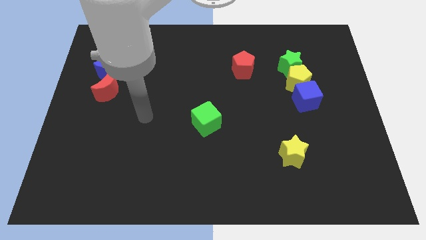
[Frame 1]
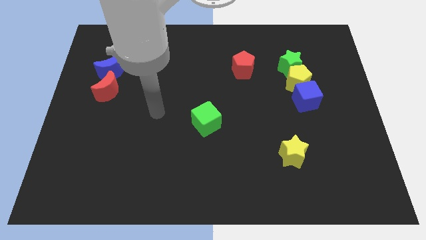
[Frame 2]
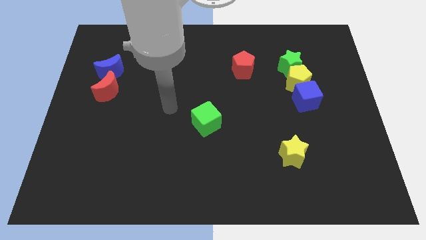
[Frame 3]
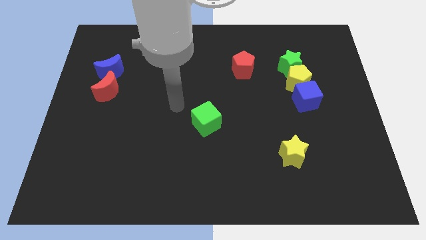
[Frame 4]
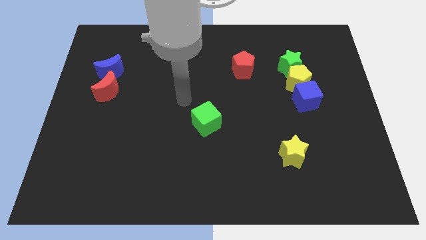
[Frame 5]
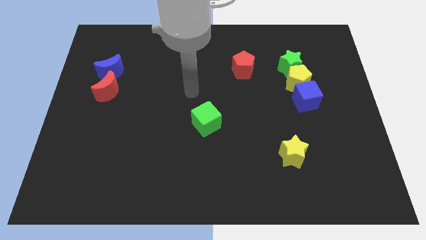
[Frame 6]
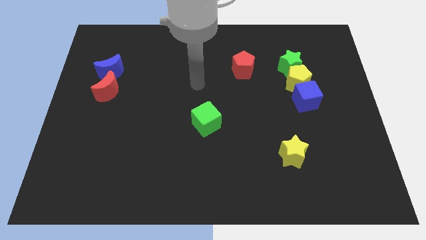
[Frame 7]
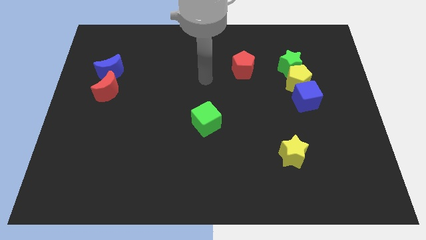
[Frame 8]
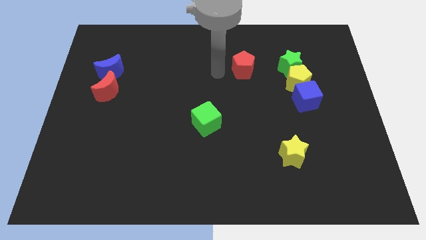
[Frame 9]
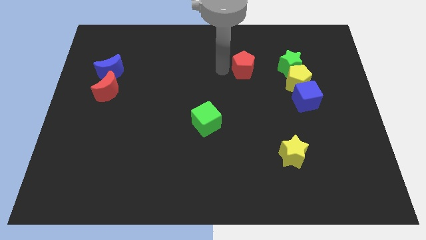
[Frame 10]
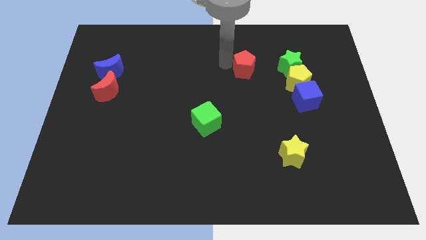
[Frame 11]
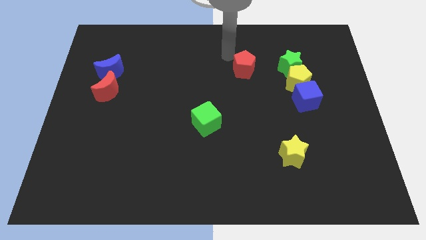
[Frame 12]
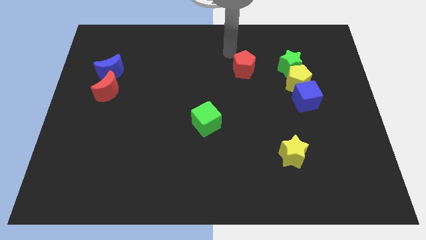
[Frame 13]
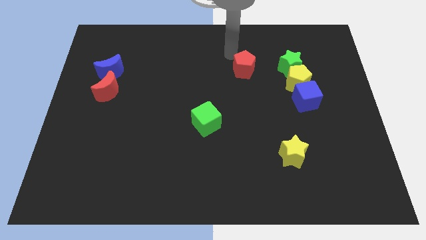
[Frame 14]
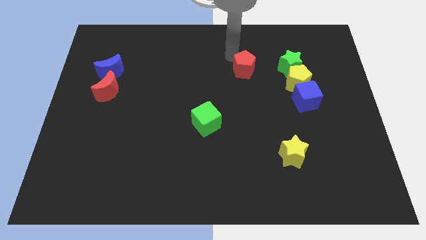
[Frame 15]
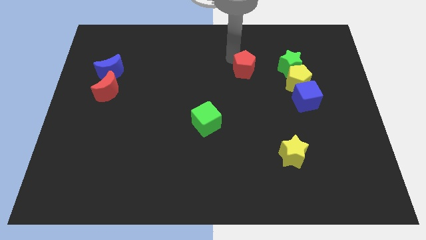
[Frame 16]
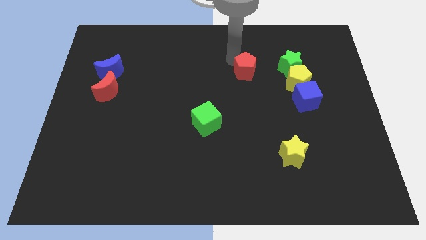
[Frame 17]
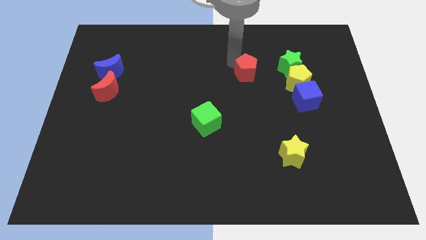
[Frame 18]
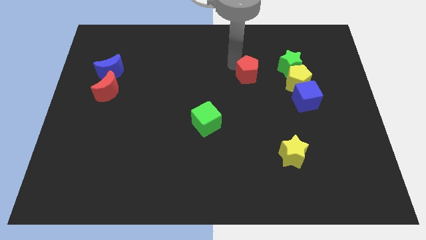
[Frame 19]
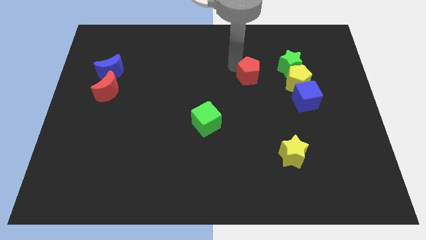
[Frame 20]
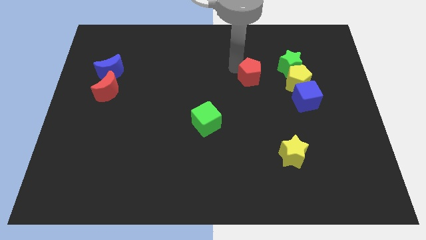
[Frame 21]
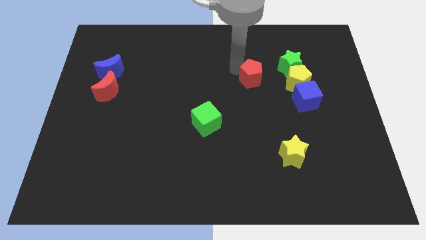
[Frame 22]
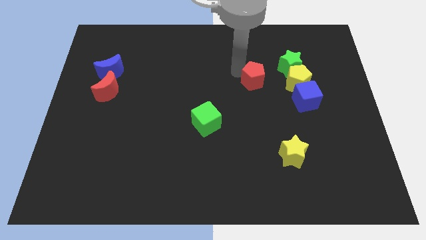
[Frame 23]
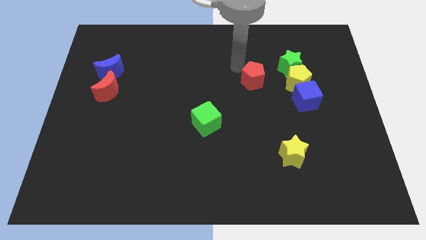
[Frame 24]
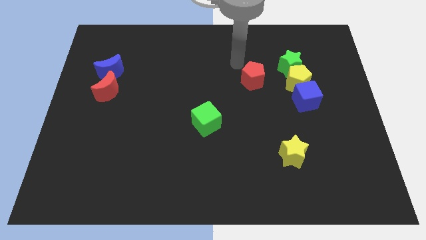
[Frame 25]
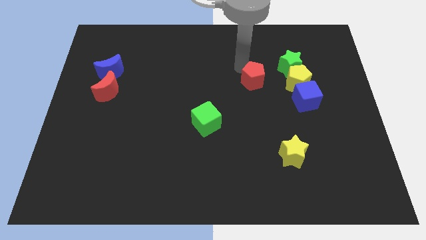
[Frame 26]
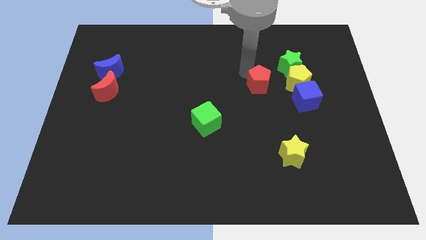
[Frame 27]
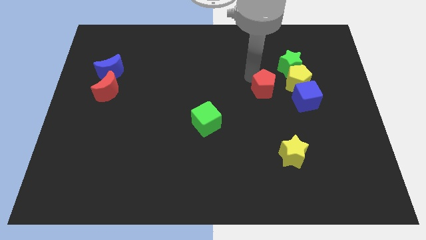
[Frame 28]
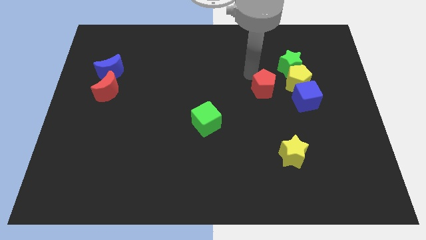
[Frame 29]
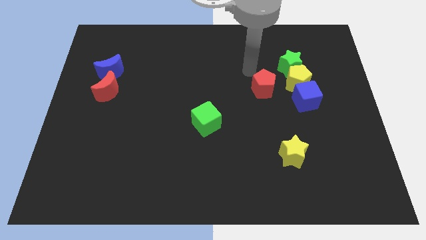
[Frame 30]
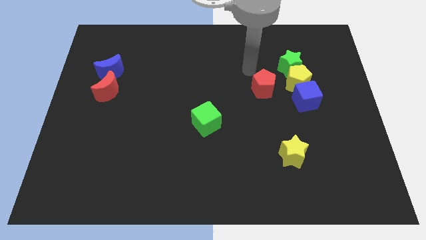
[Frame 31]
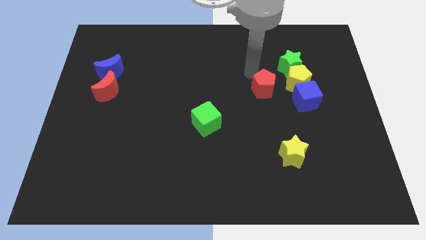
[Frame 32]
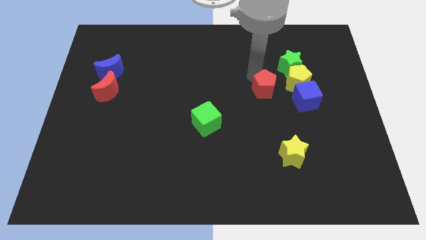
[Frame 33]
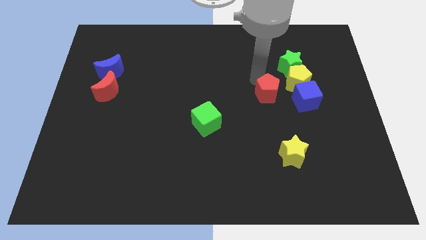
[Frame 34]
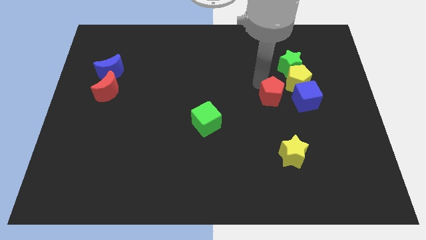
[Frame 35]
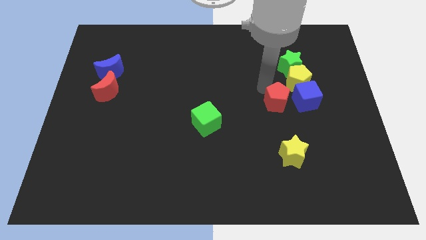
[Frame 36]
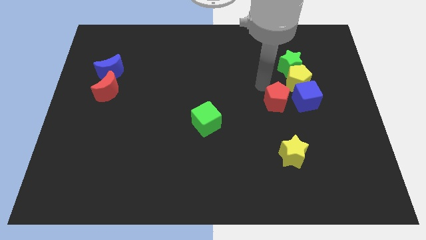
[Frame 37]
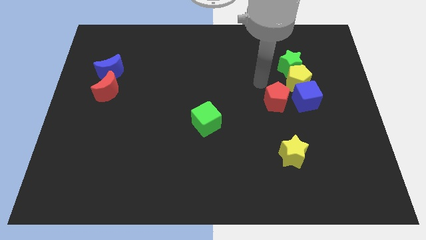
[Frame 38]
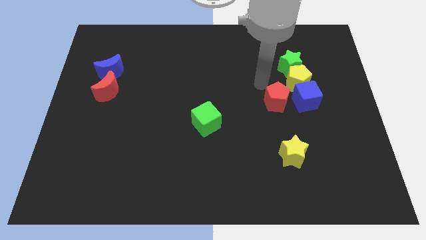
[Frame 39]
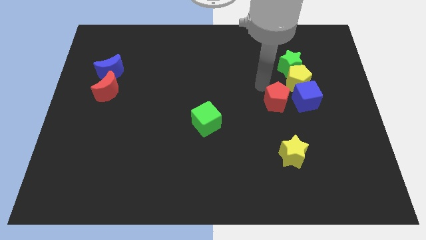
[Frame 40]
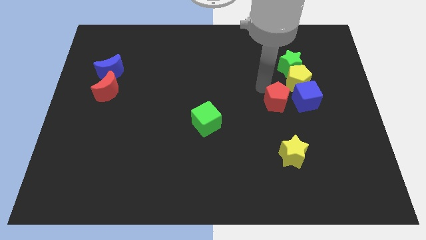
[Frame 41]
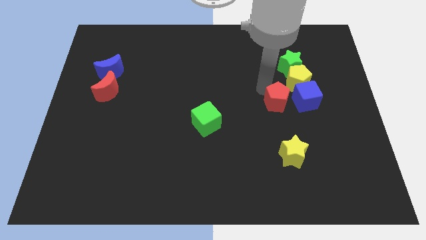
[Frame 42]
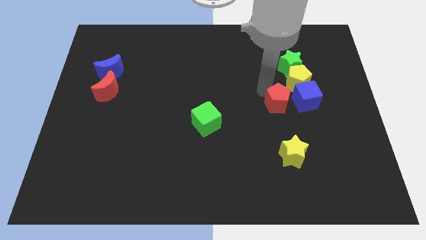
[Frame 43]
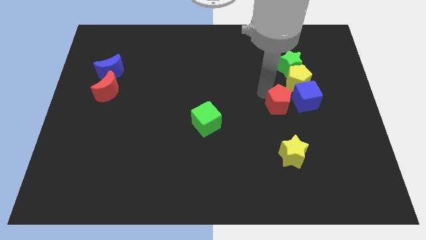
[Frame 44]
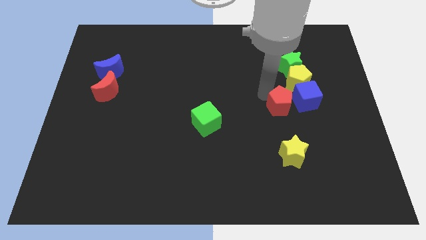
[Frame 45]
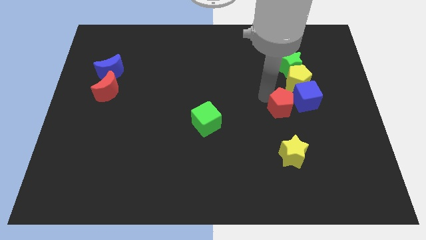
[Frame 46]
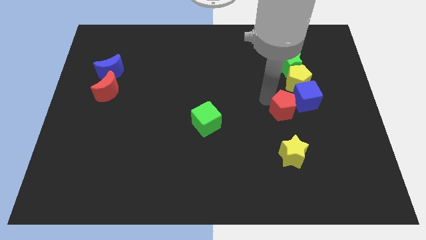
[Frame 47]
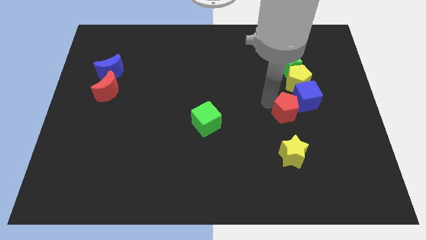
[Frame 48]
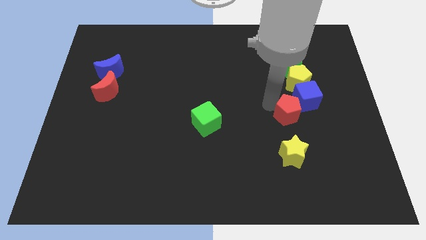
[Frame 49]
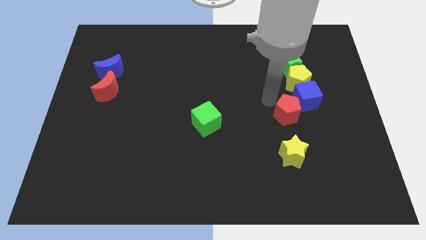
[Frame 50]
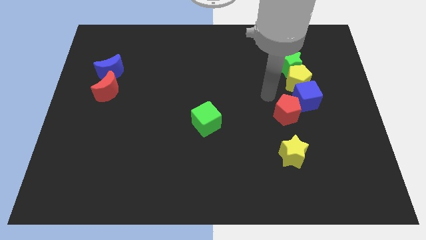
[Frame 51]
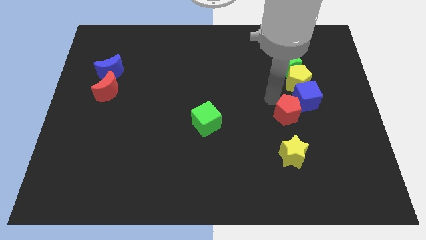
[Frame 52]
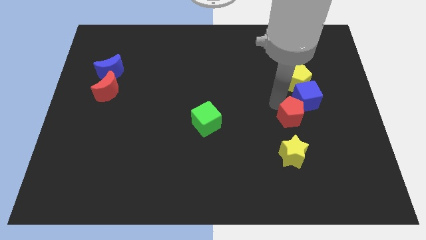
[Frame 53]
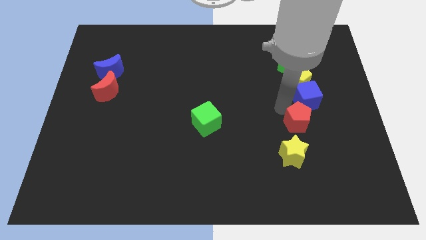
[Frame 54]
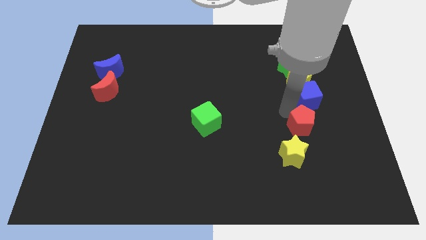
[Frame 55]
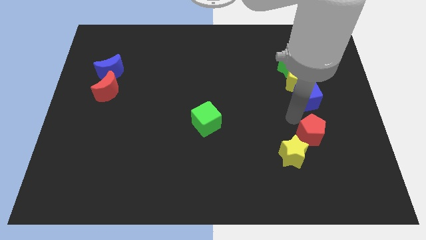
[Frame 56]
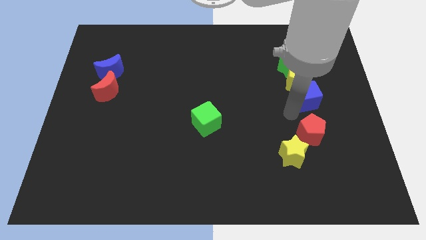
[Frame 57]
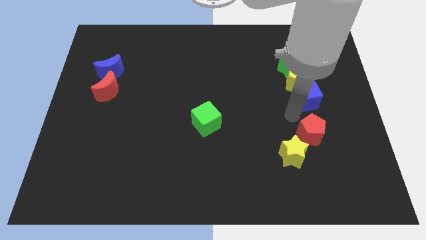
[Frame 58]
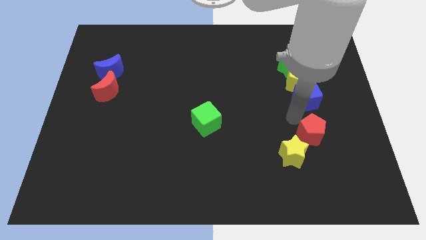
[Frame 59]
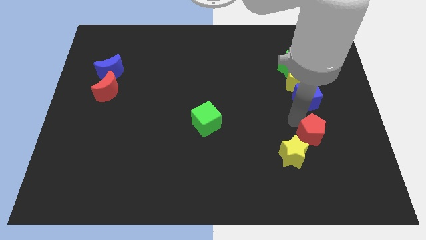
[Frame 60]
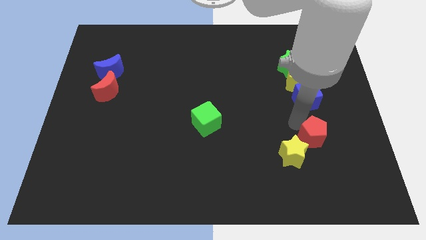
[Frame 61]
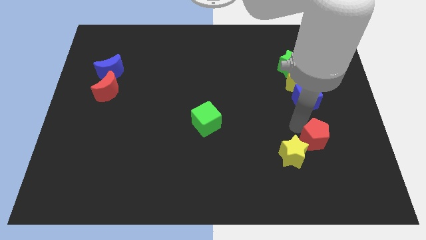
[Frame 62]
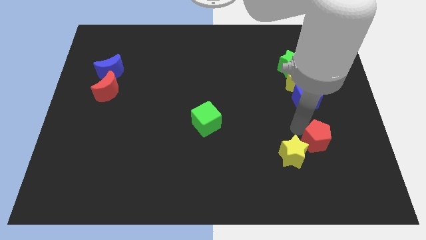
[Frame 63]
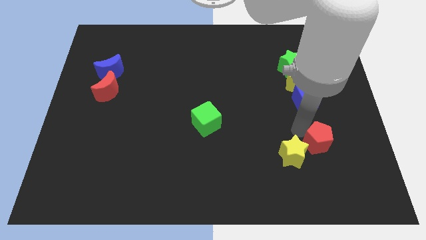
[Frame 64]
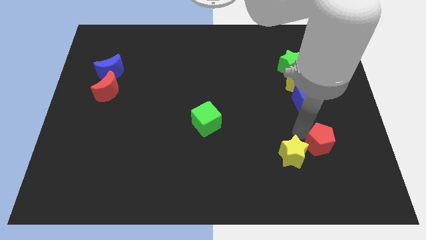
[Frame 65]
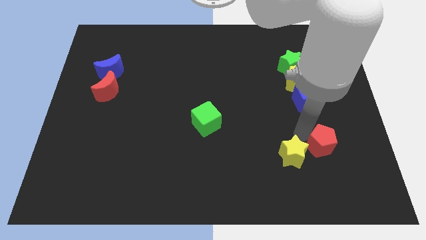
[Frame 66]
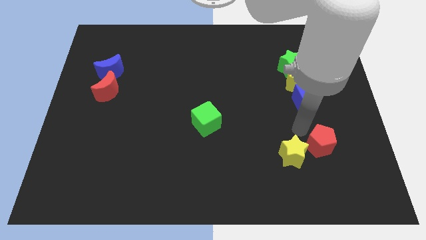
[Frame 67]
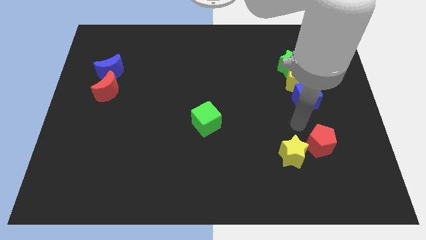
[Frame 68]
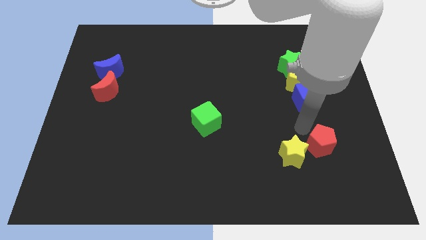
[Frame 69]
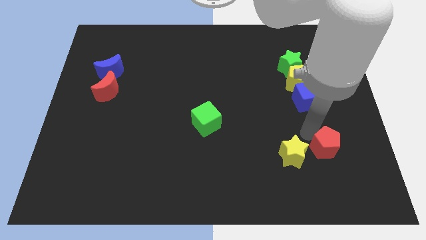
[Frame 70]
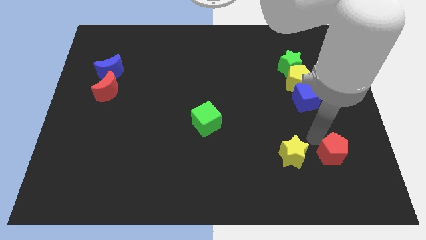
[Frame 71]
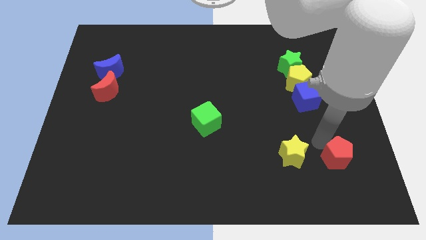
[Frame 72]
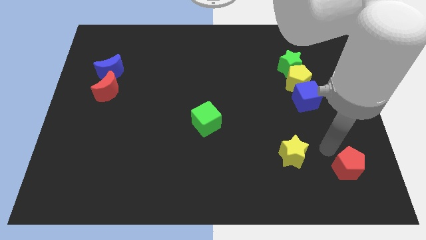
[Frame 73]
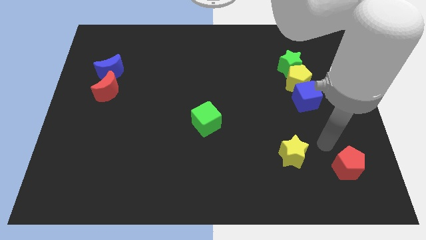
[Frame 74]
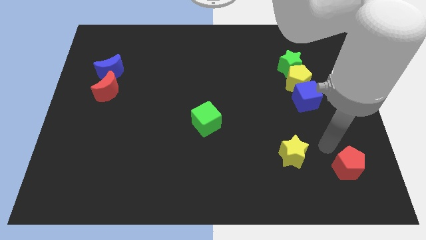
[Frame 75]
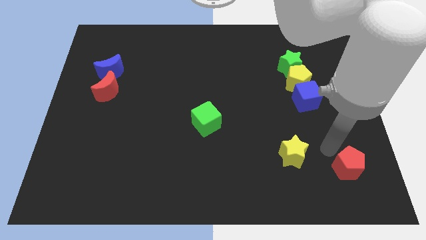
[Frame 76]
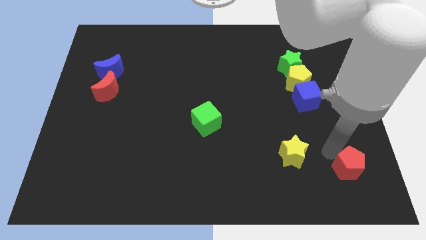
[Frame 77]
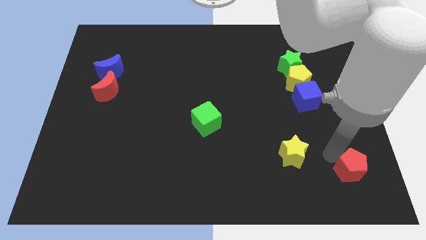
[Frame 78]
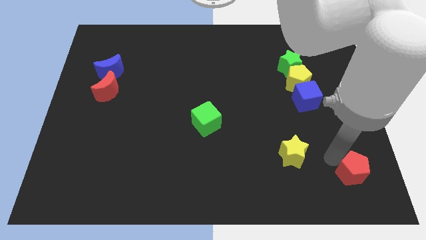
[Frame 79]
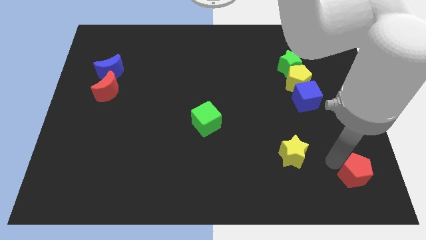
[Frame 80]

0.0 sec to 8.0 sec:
slide the red pentagon to the lower right corner
